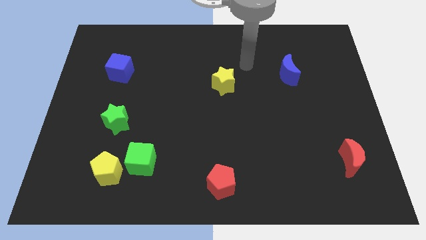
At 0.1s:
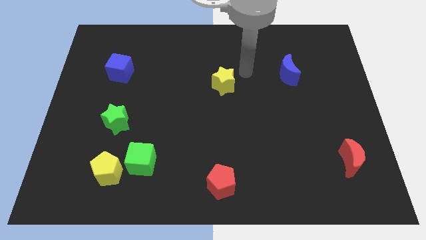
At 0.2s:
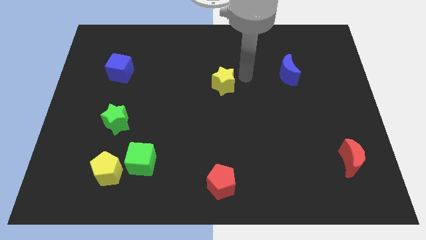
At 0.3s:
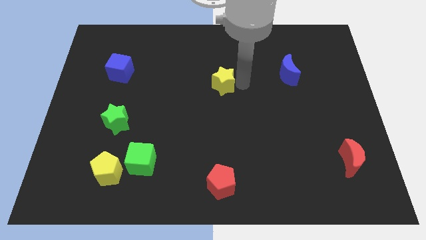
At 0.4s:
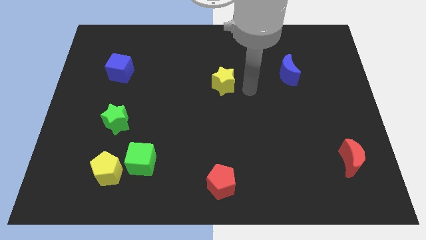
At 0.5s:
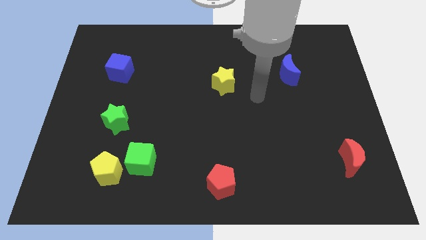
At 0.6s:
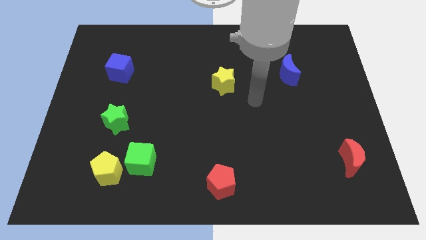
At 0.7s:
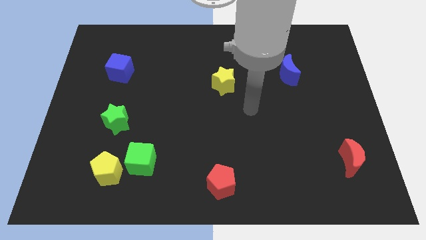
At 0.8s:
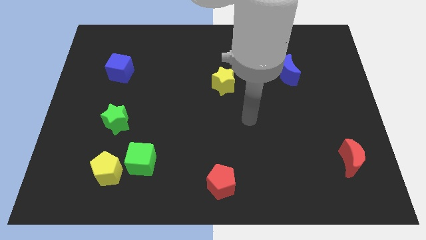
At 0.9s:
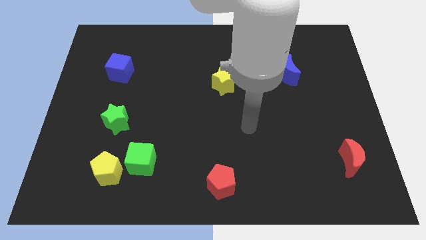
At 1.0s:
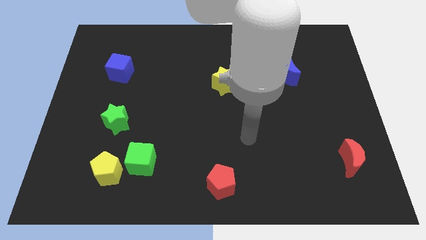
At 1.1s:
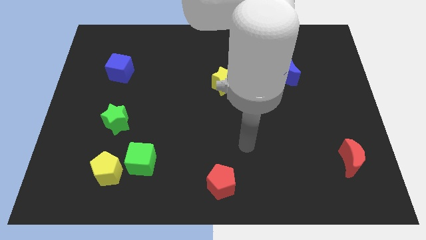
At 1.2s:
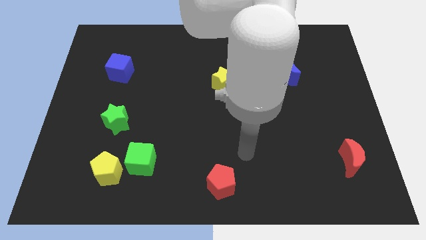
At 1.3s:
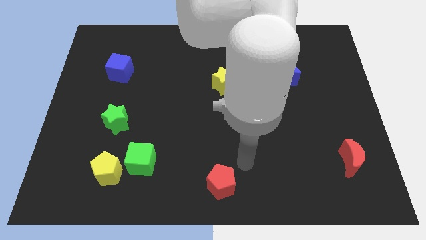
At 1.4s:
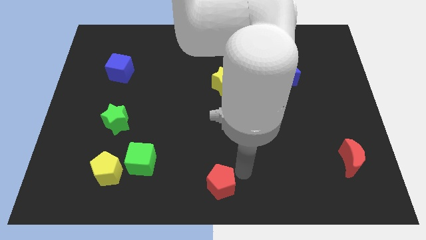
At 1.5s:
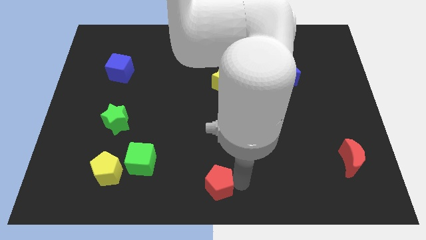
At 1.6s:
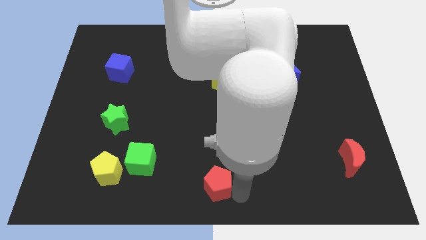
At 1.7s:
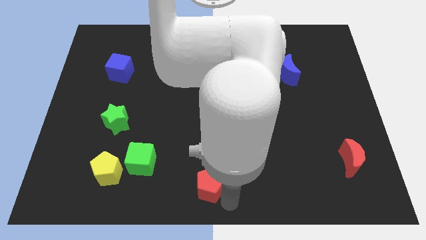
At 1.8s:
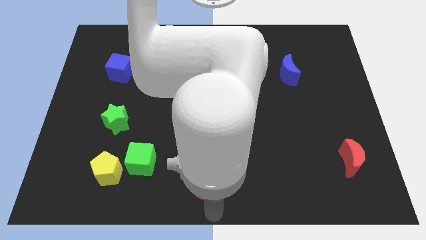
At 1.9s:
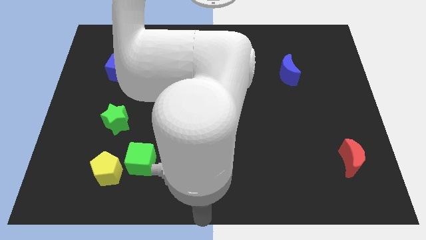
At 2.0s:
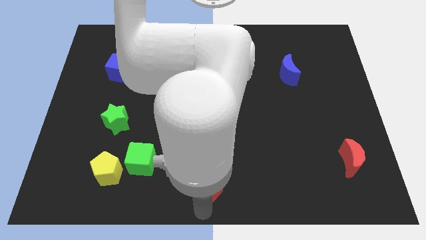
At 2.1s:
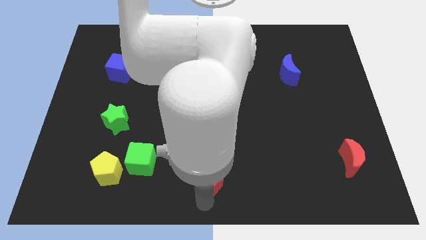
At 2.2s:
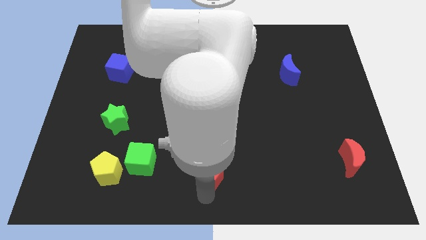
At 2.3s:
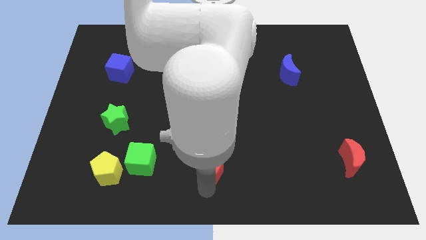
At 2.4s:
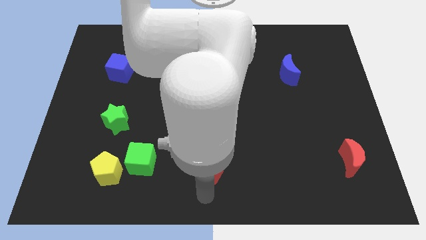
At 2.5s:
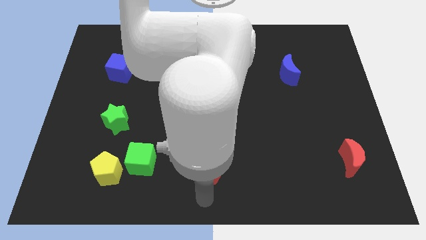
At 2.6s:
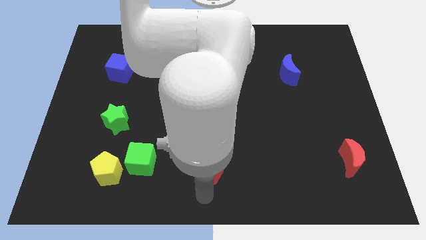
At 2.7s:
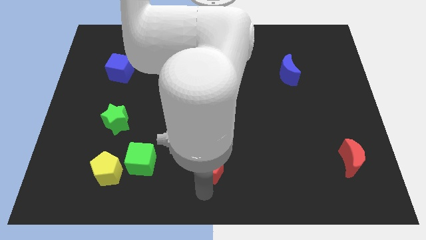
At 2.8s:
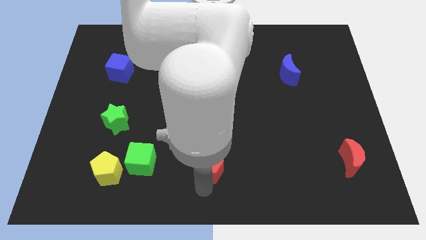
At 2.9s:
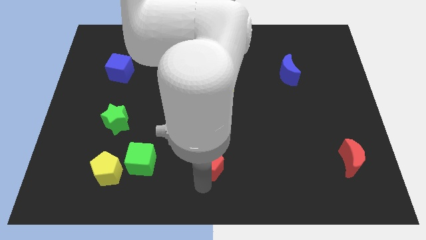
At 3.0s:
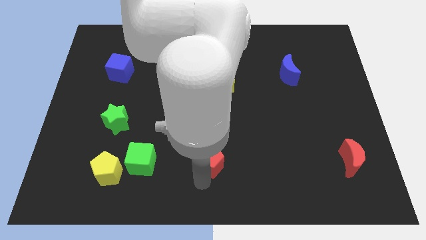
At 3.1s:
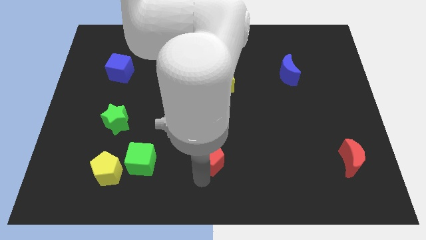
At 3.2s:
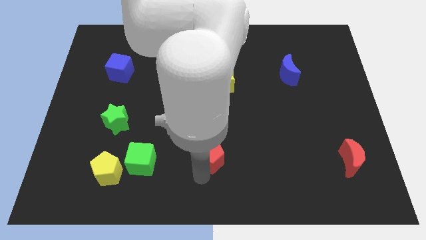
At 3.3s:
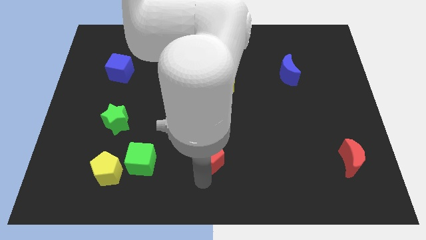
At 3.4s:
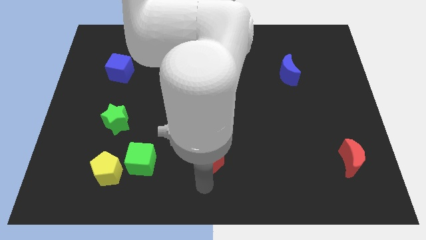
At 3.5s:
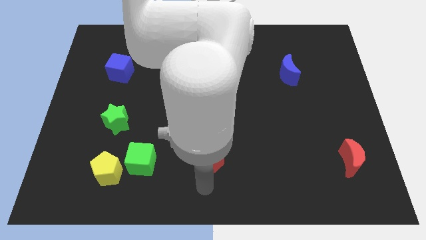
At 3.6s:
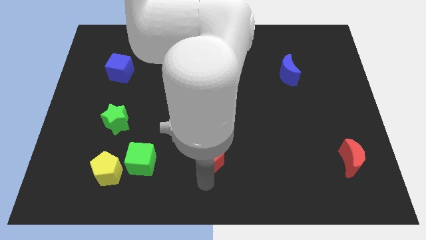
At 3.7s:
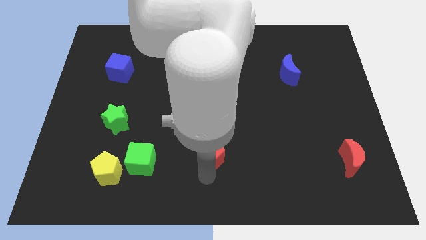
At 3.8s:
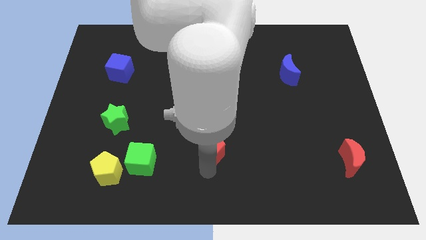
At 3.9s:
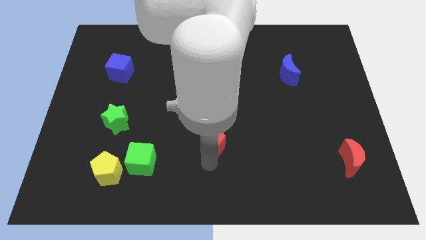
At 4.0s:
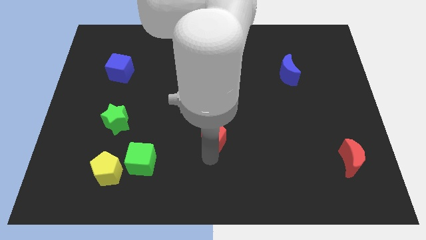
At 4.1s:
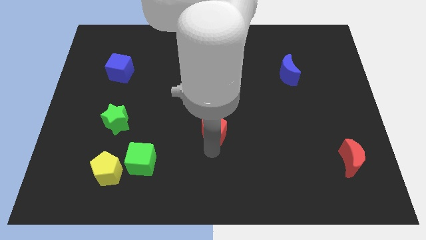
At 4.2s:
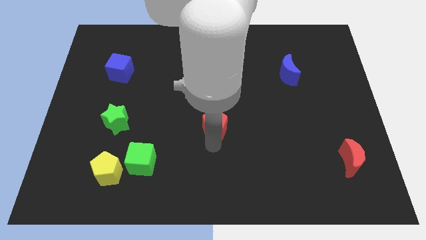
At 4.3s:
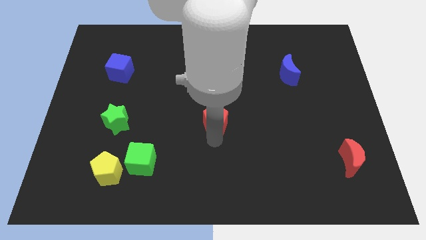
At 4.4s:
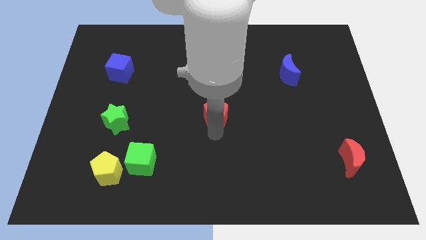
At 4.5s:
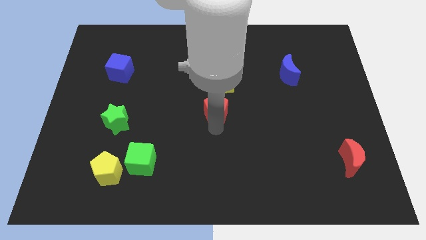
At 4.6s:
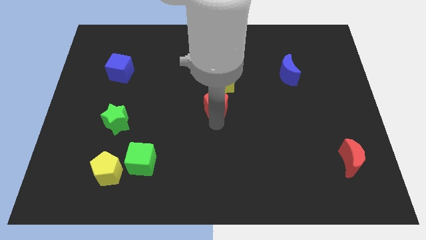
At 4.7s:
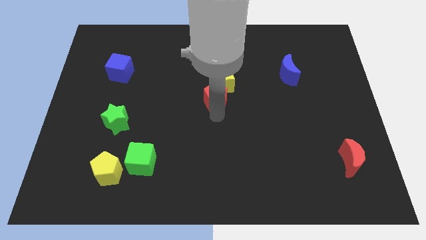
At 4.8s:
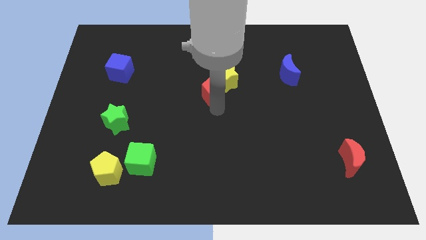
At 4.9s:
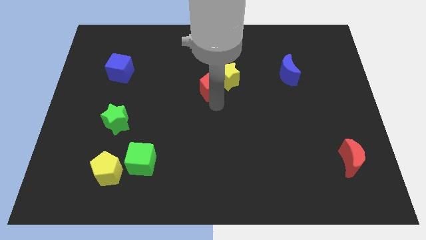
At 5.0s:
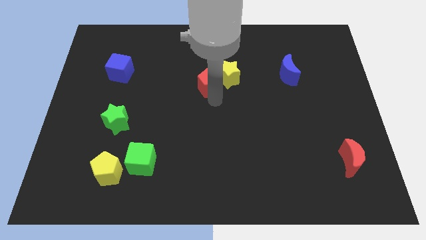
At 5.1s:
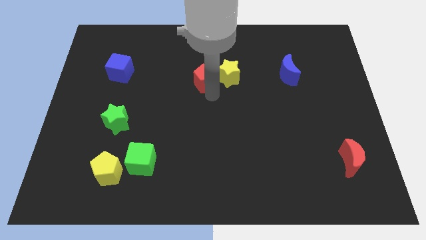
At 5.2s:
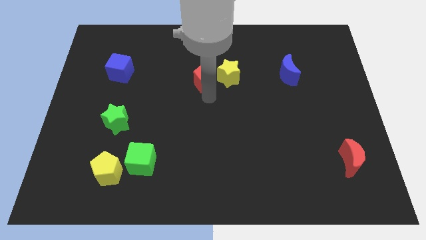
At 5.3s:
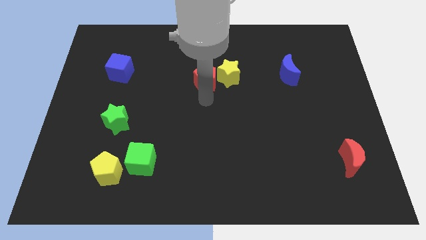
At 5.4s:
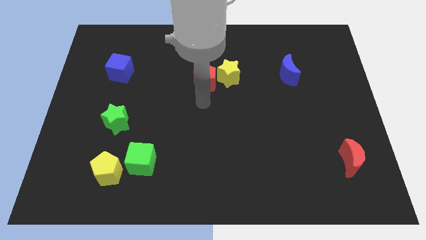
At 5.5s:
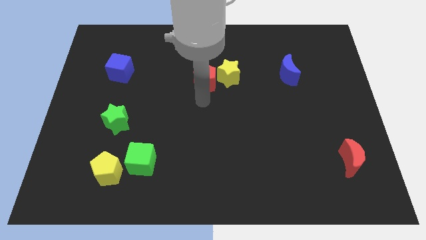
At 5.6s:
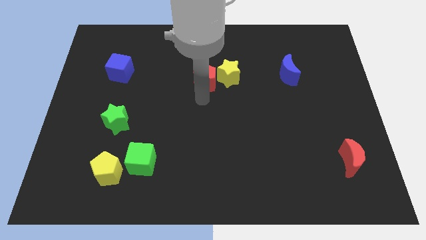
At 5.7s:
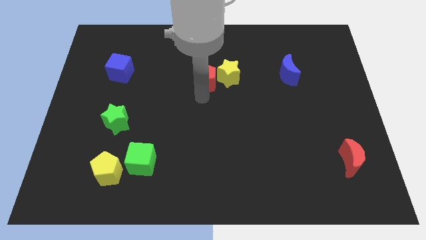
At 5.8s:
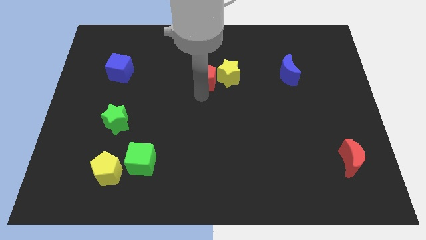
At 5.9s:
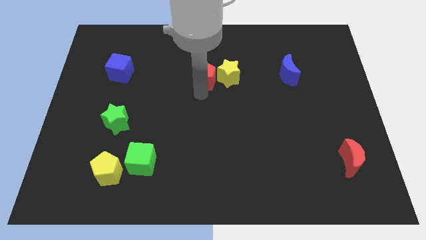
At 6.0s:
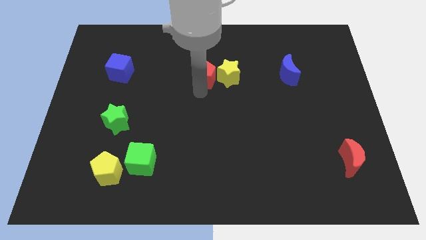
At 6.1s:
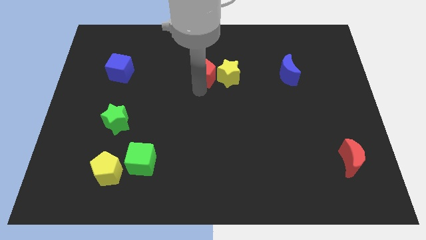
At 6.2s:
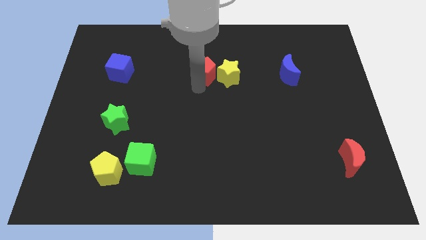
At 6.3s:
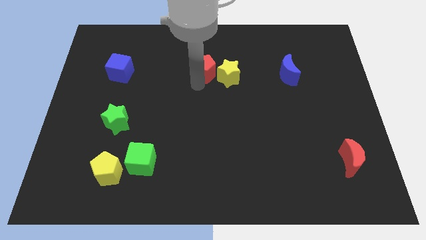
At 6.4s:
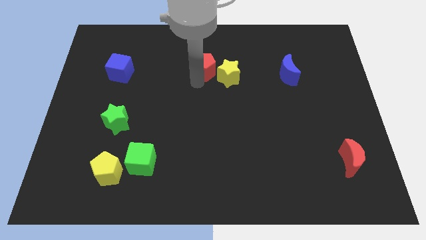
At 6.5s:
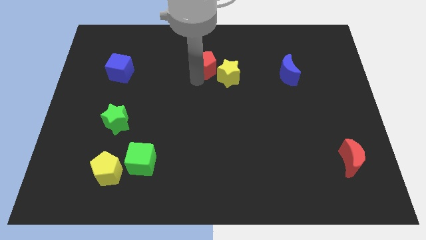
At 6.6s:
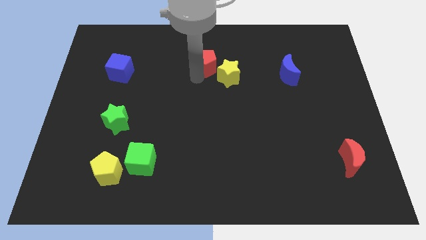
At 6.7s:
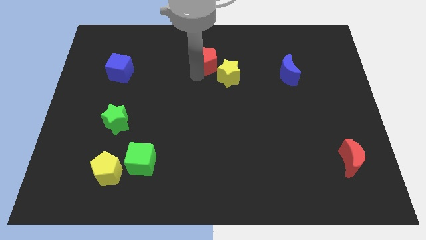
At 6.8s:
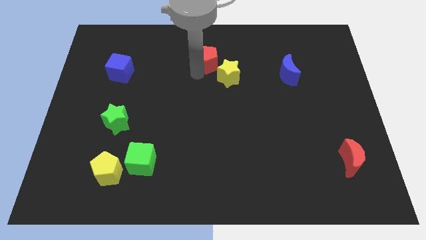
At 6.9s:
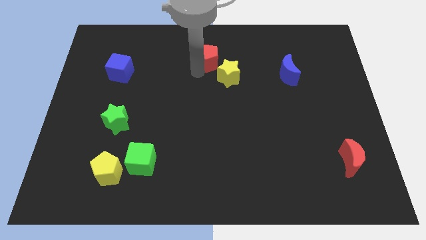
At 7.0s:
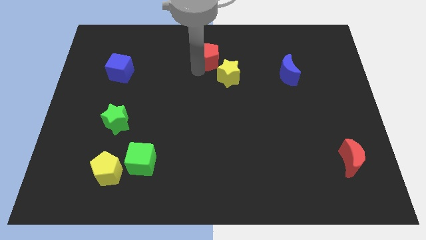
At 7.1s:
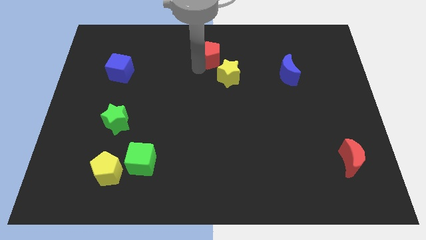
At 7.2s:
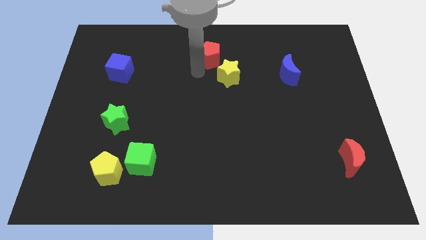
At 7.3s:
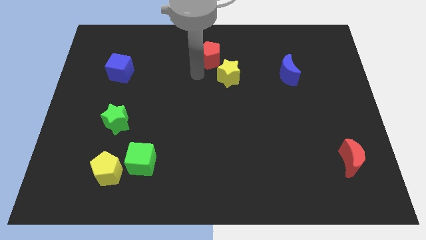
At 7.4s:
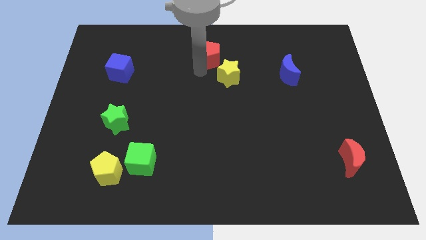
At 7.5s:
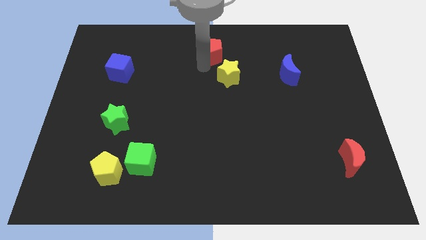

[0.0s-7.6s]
put the red pentagon to the top side
